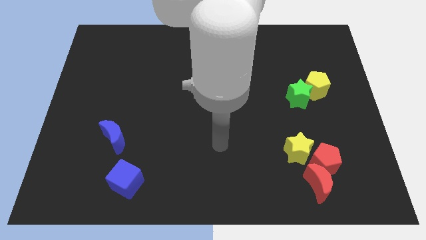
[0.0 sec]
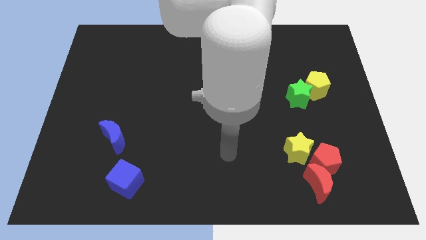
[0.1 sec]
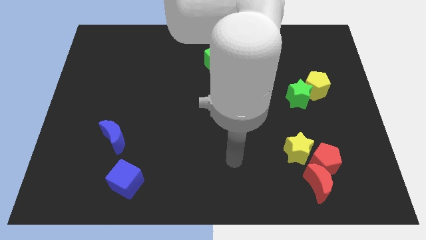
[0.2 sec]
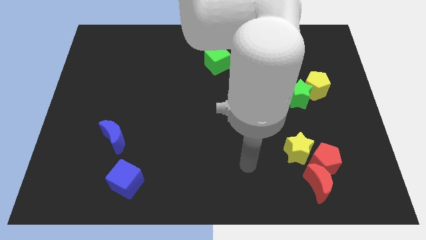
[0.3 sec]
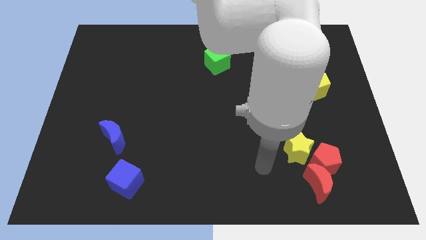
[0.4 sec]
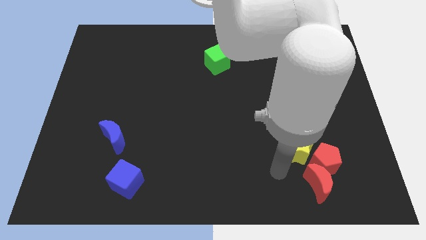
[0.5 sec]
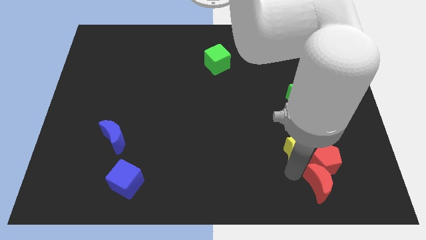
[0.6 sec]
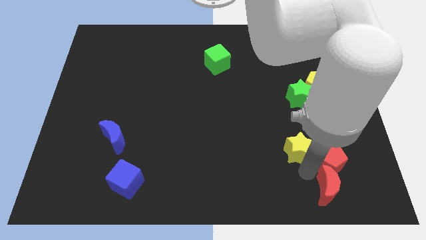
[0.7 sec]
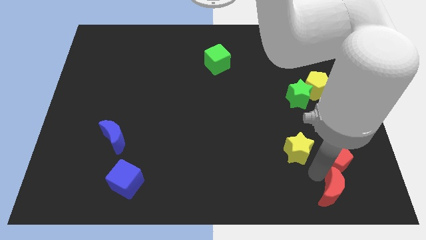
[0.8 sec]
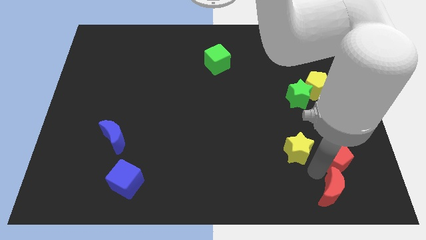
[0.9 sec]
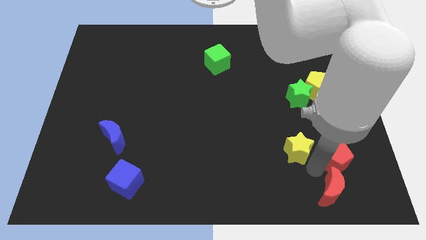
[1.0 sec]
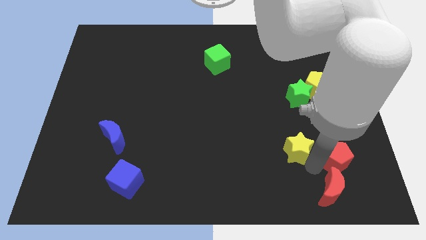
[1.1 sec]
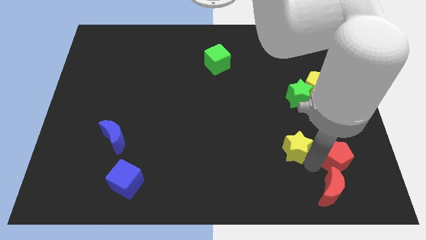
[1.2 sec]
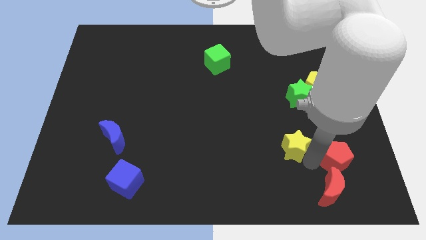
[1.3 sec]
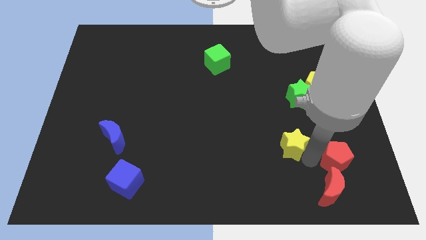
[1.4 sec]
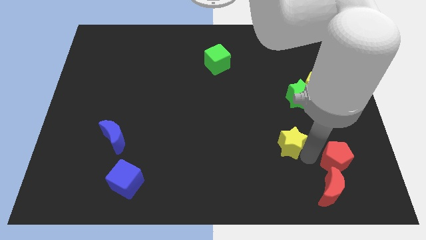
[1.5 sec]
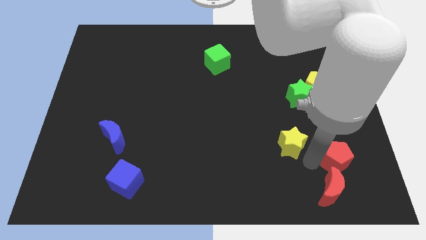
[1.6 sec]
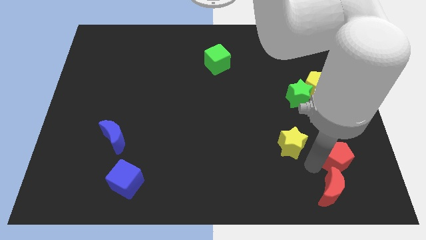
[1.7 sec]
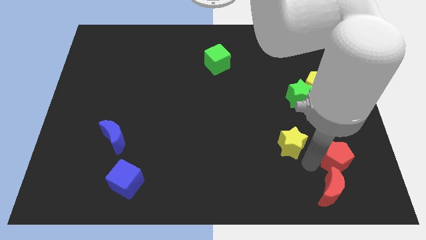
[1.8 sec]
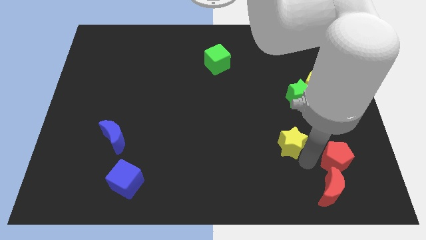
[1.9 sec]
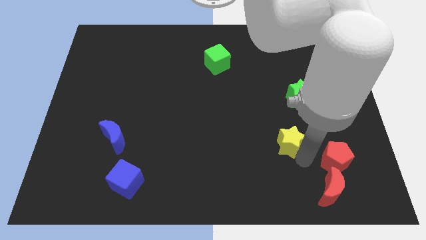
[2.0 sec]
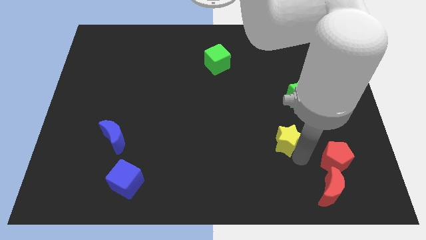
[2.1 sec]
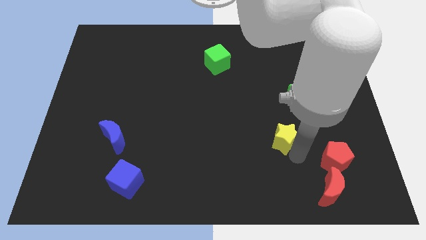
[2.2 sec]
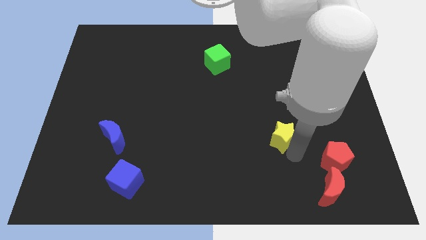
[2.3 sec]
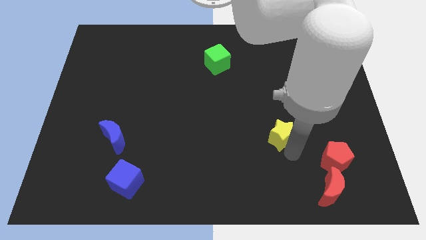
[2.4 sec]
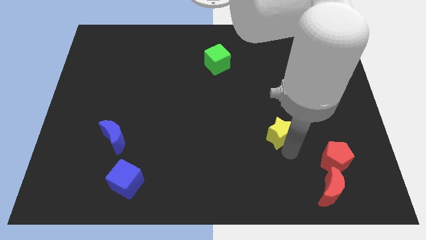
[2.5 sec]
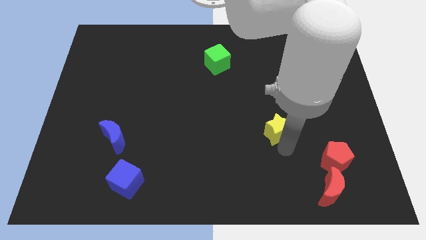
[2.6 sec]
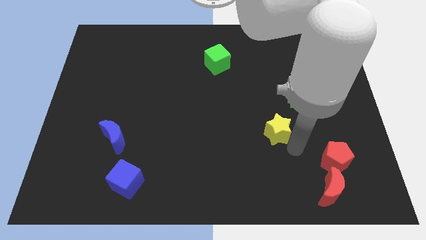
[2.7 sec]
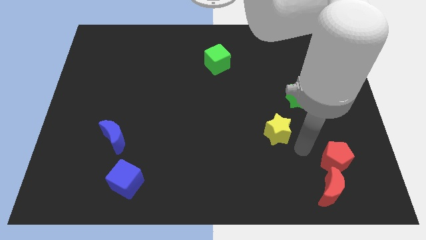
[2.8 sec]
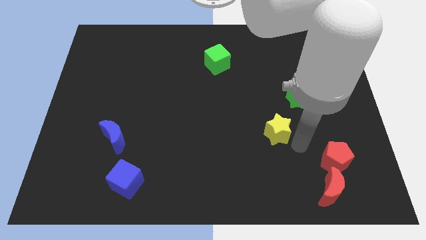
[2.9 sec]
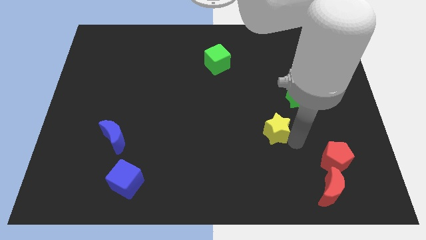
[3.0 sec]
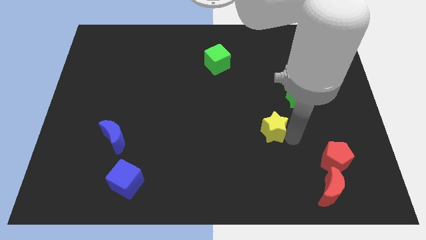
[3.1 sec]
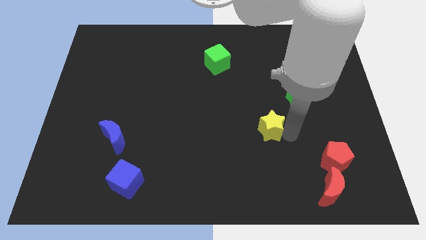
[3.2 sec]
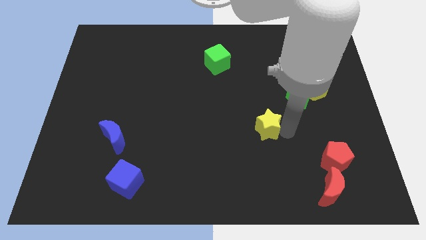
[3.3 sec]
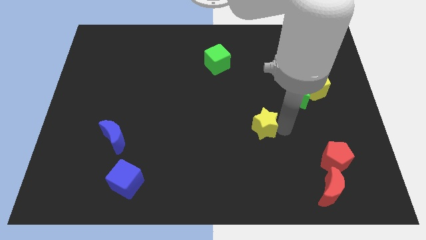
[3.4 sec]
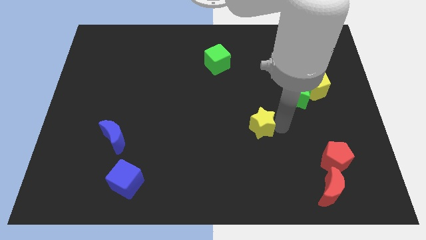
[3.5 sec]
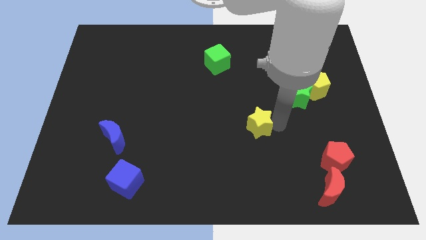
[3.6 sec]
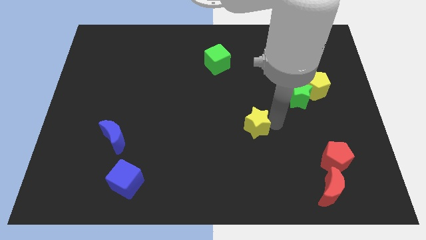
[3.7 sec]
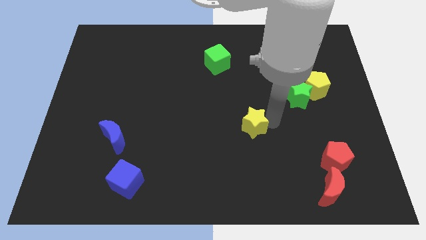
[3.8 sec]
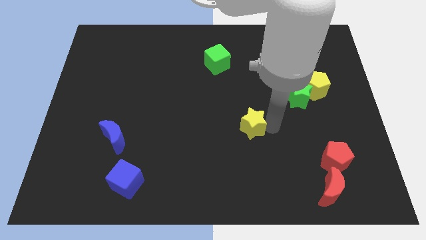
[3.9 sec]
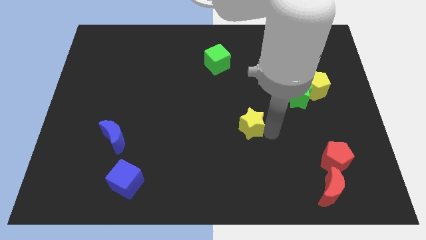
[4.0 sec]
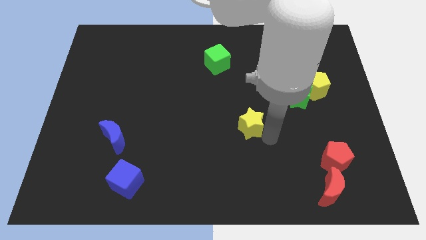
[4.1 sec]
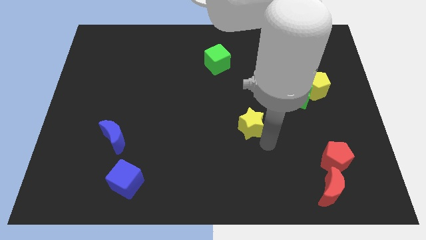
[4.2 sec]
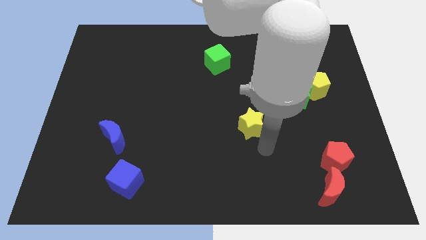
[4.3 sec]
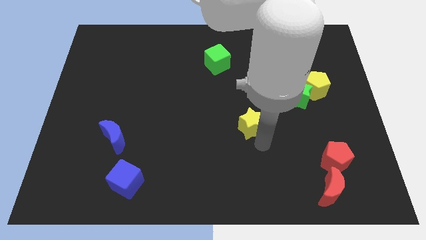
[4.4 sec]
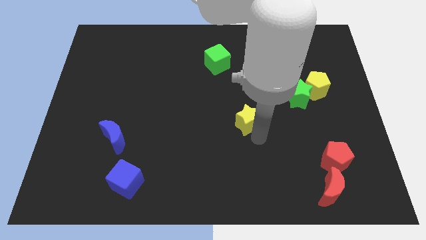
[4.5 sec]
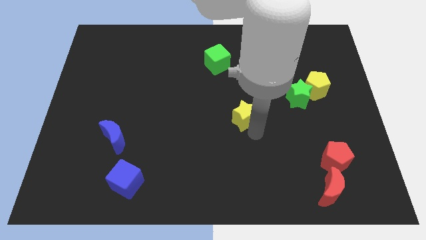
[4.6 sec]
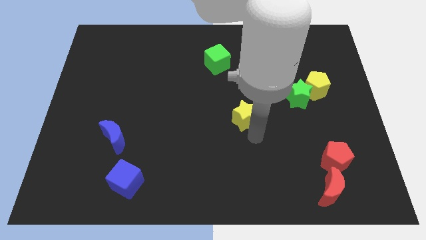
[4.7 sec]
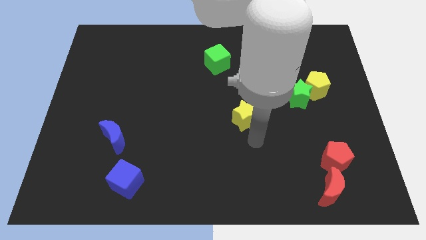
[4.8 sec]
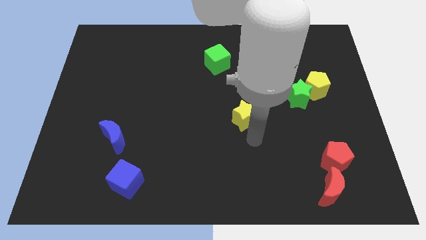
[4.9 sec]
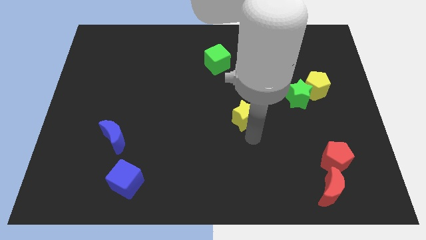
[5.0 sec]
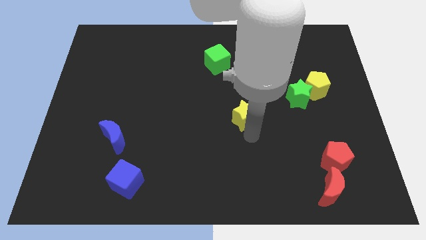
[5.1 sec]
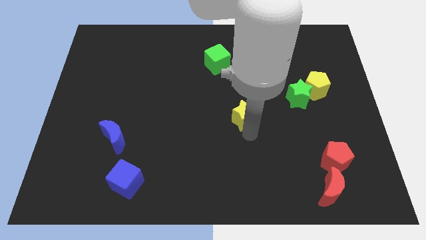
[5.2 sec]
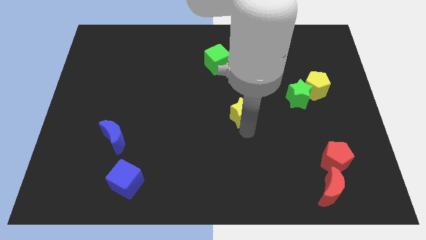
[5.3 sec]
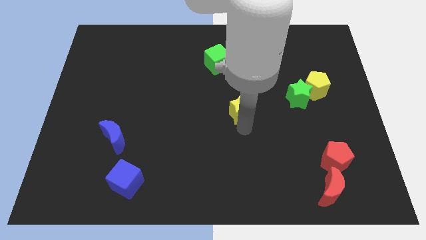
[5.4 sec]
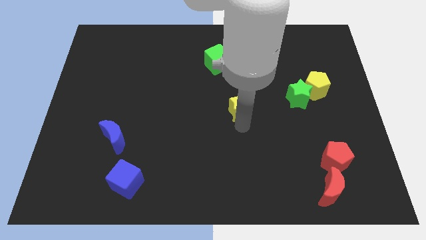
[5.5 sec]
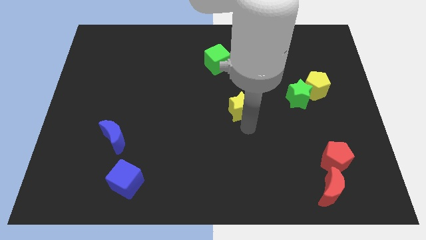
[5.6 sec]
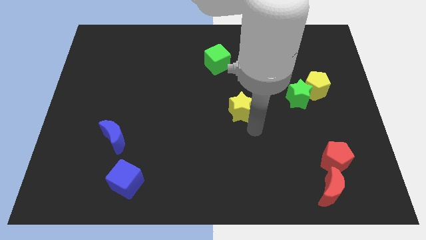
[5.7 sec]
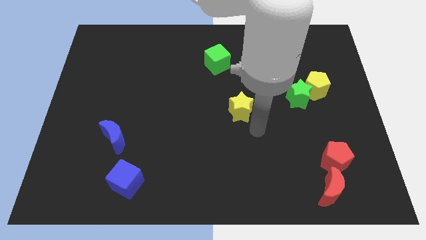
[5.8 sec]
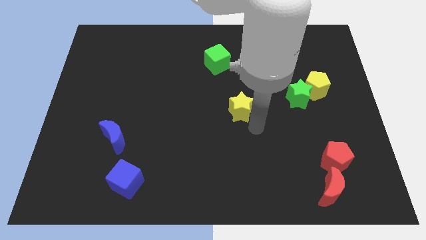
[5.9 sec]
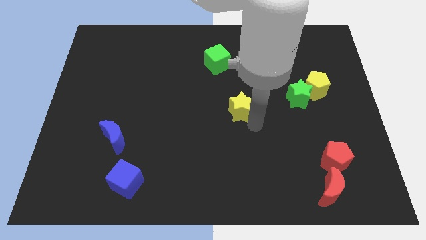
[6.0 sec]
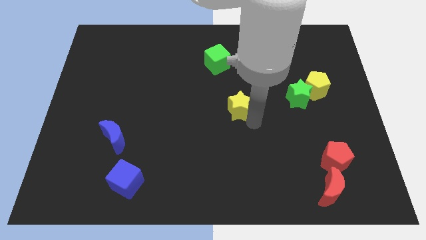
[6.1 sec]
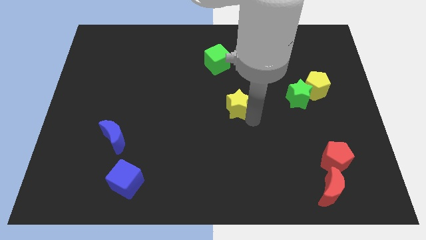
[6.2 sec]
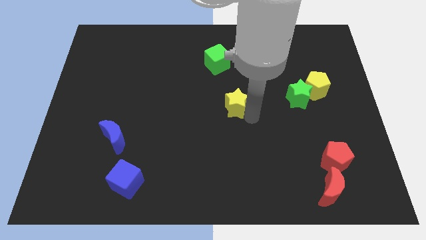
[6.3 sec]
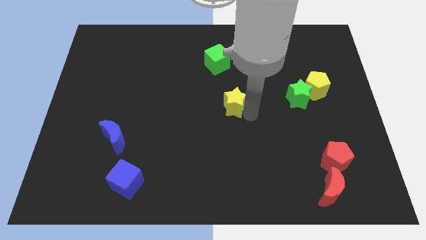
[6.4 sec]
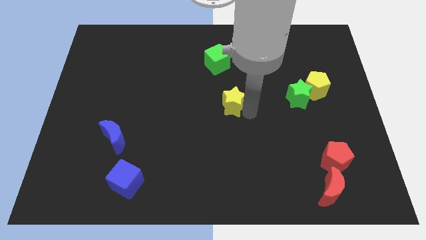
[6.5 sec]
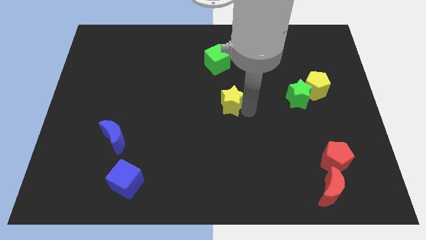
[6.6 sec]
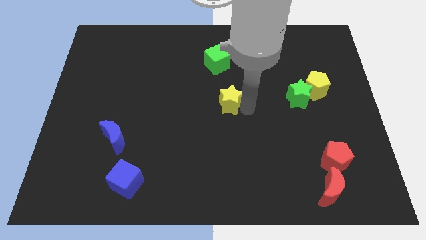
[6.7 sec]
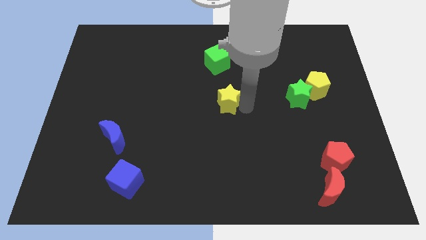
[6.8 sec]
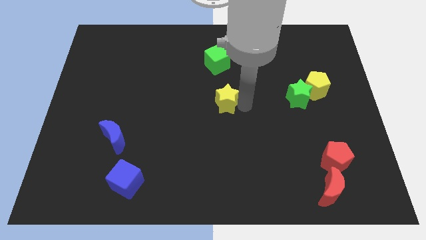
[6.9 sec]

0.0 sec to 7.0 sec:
move the yellow star up and left

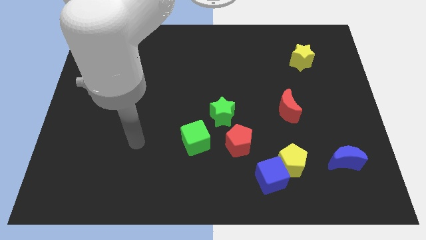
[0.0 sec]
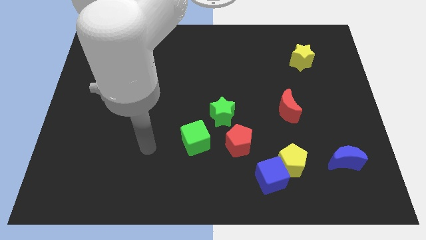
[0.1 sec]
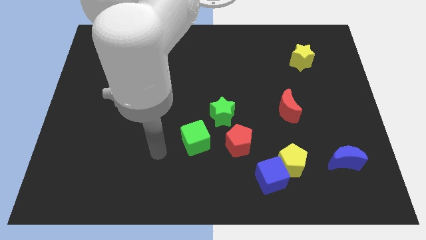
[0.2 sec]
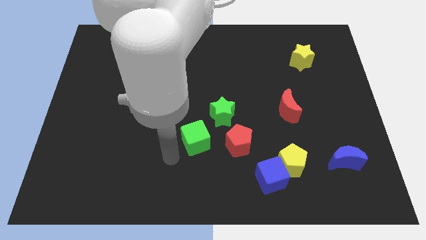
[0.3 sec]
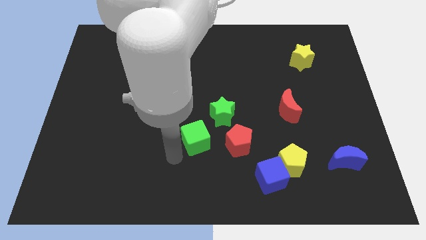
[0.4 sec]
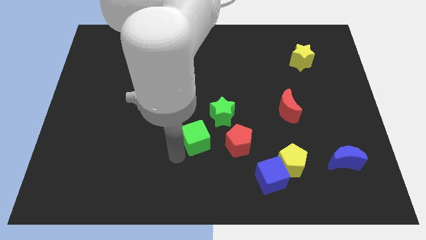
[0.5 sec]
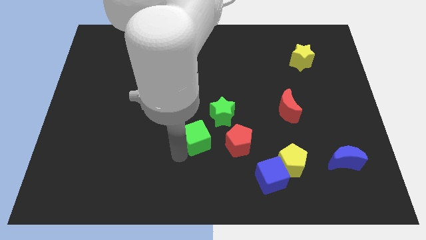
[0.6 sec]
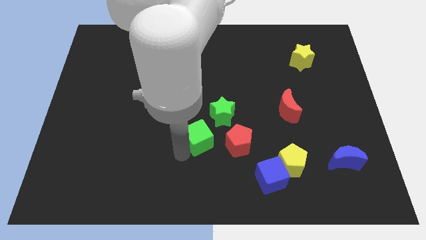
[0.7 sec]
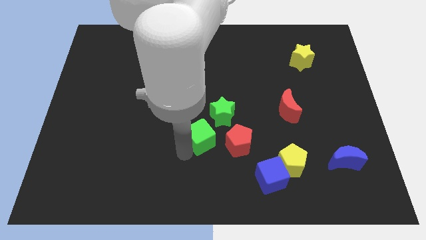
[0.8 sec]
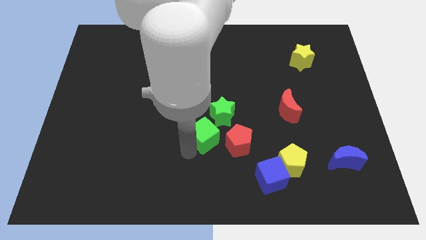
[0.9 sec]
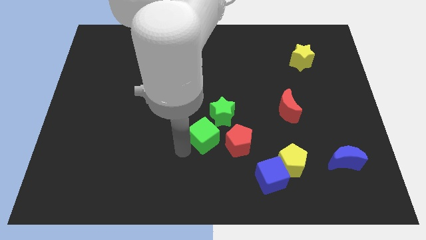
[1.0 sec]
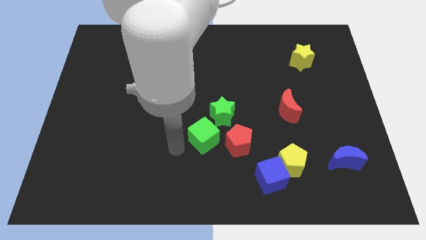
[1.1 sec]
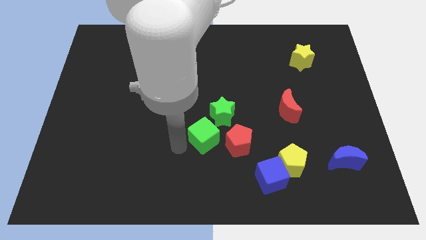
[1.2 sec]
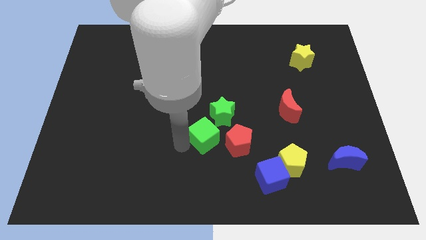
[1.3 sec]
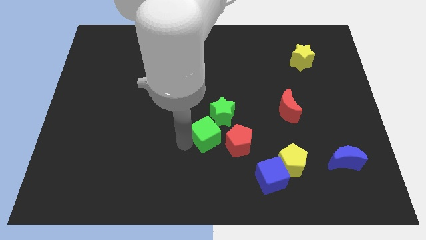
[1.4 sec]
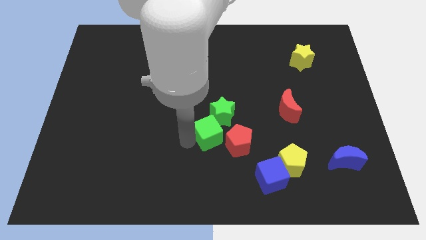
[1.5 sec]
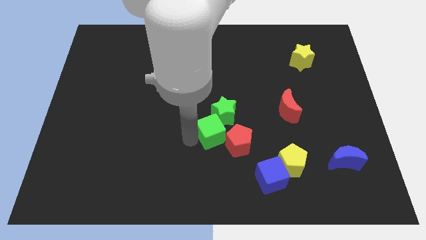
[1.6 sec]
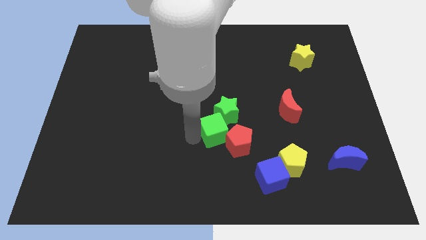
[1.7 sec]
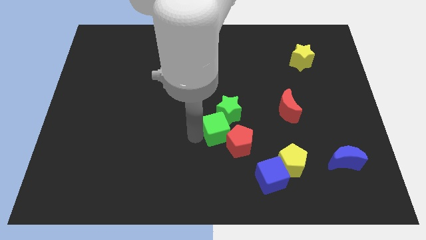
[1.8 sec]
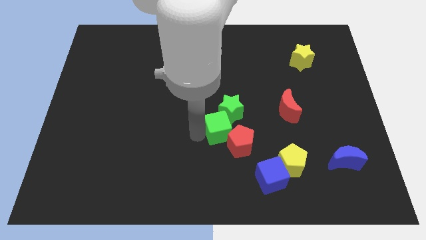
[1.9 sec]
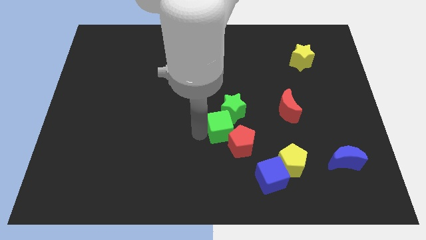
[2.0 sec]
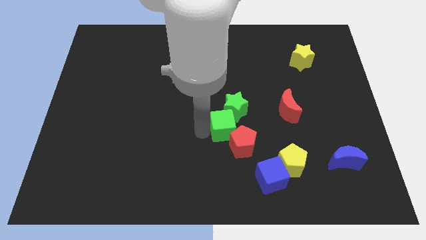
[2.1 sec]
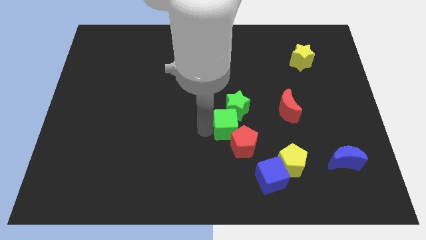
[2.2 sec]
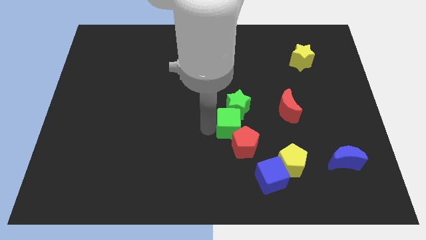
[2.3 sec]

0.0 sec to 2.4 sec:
push the green cube a bit to the right
